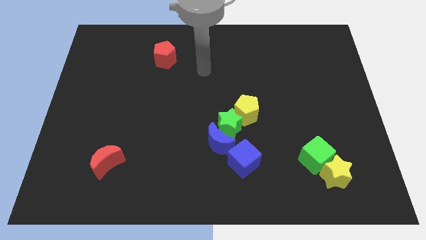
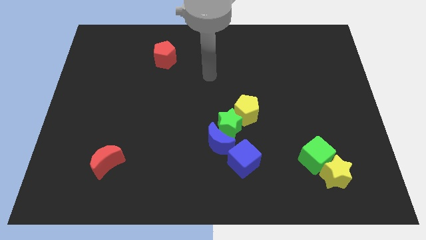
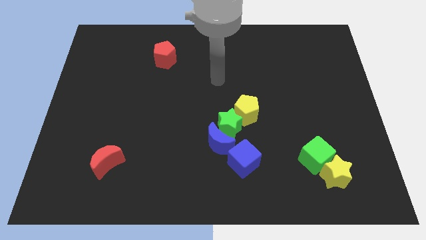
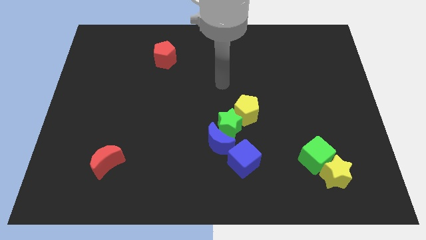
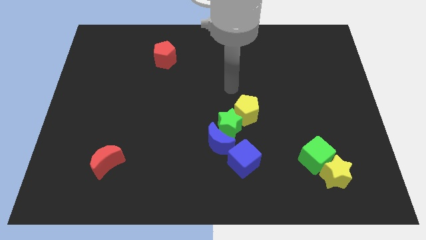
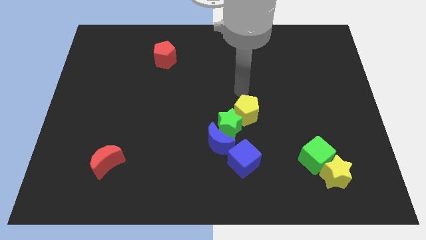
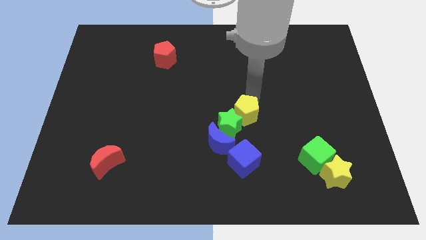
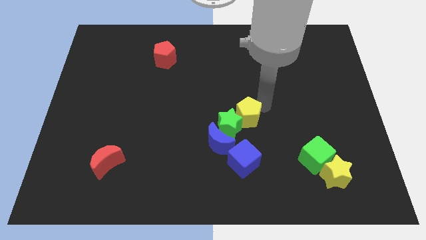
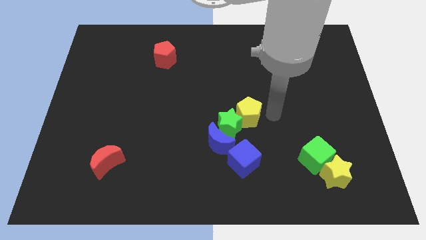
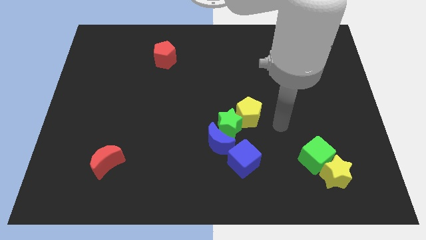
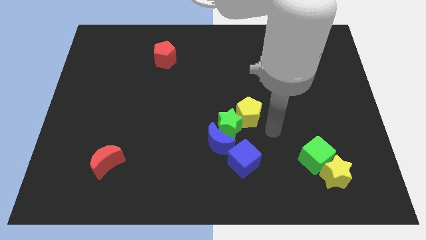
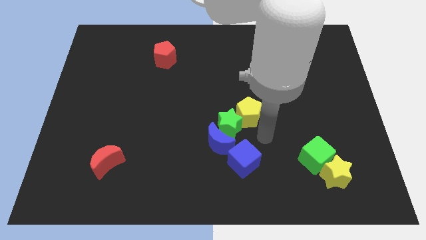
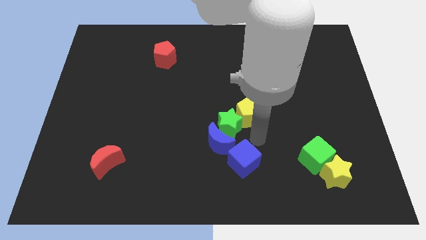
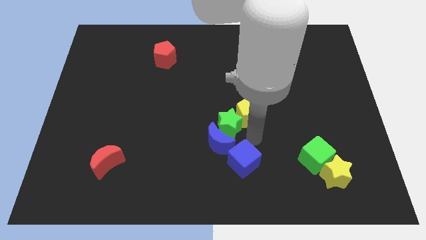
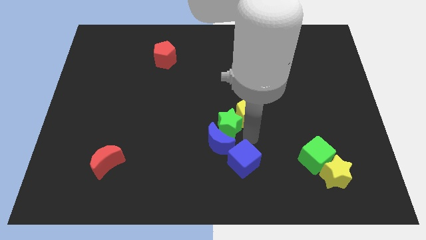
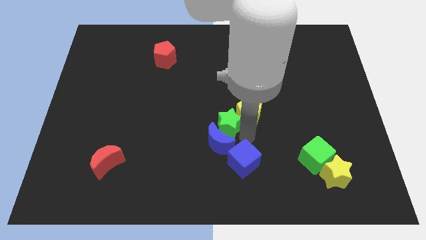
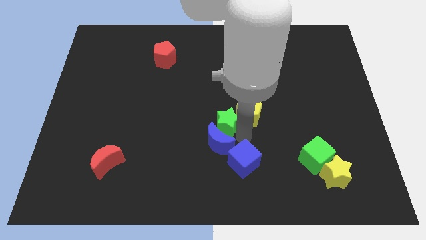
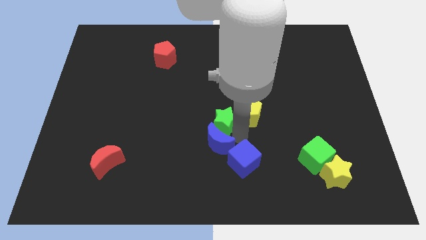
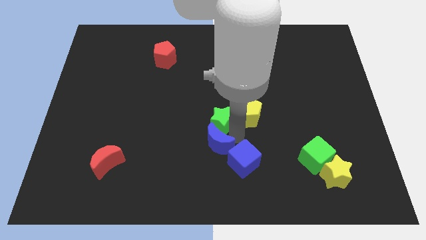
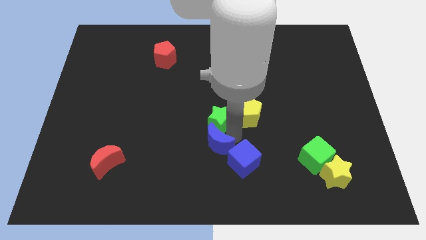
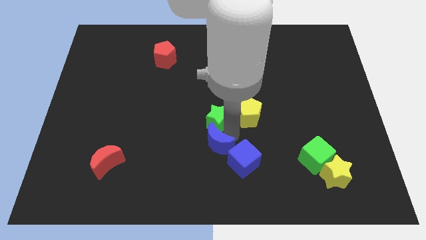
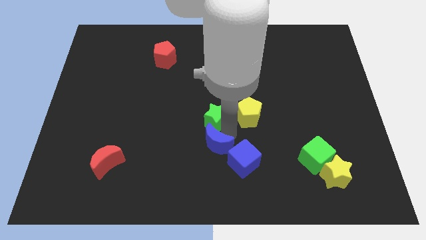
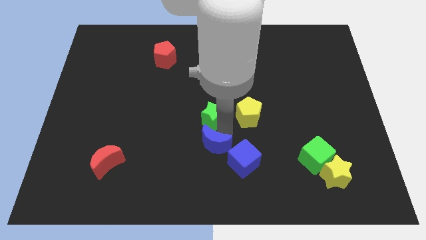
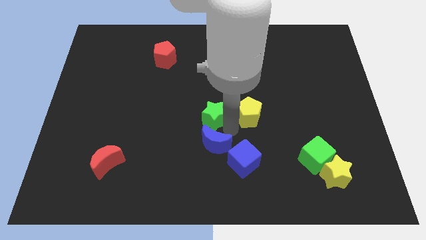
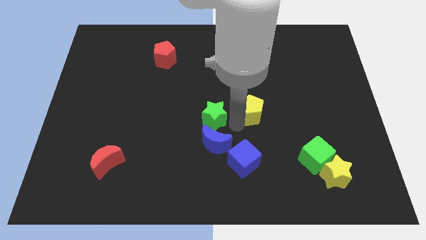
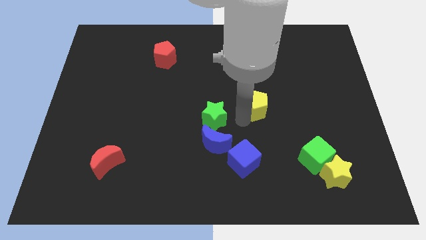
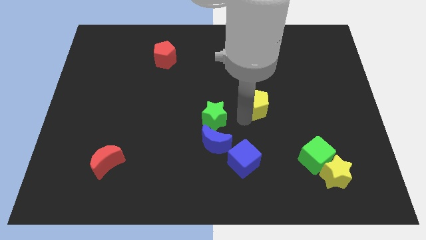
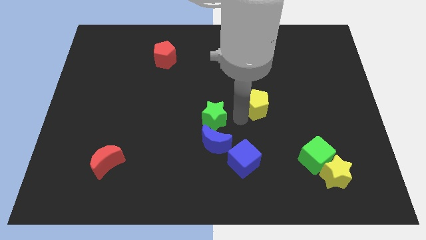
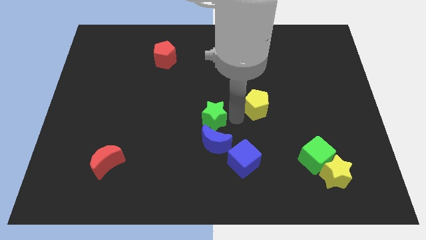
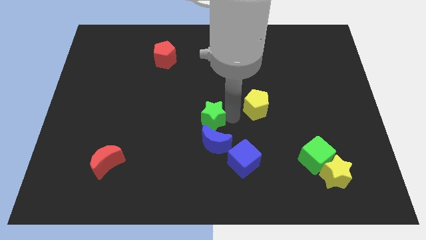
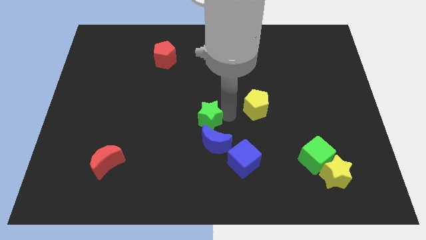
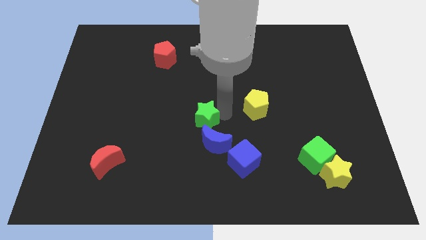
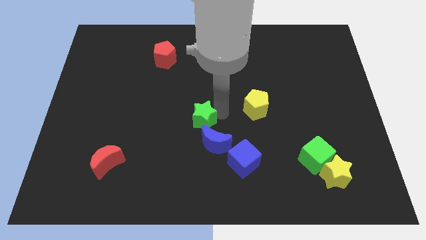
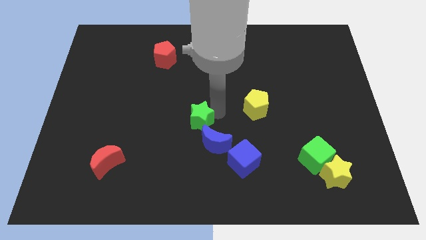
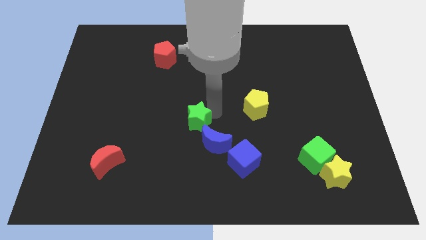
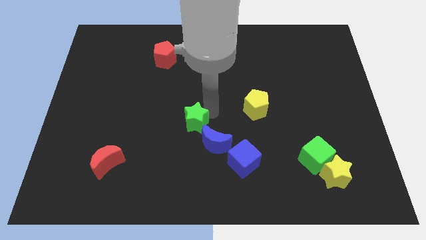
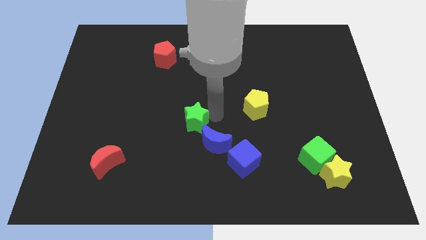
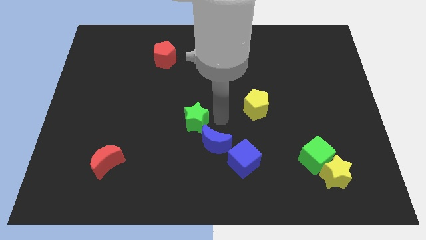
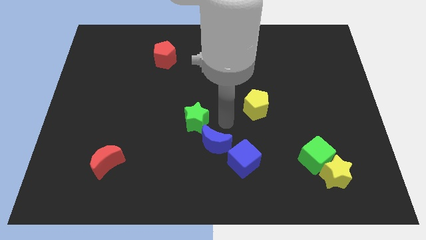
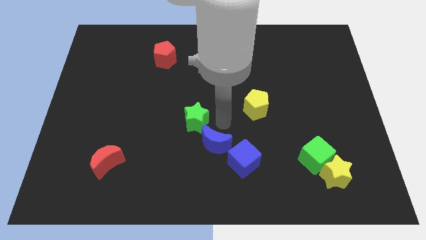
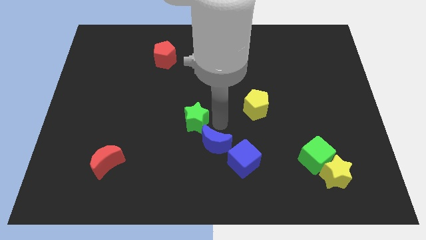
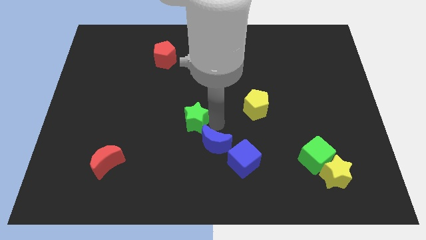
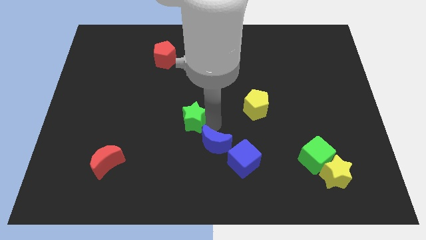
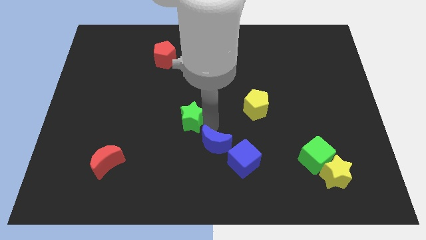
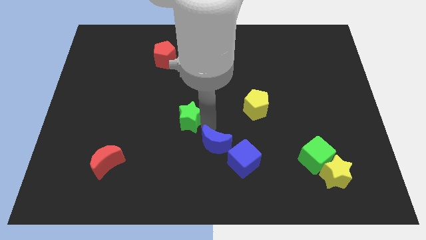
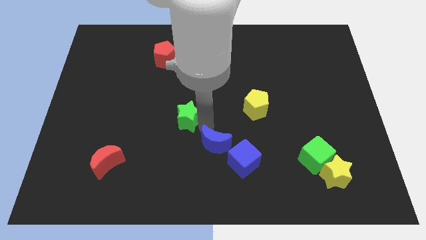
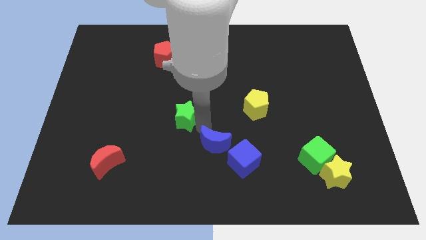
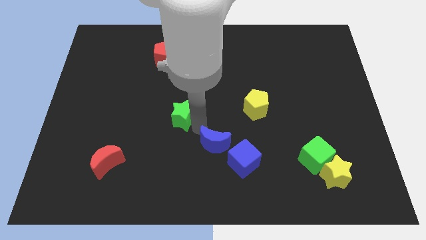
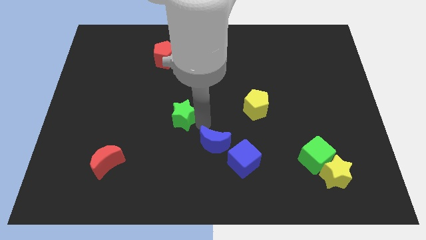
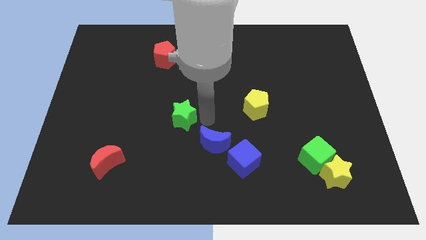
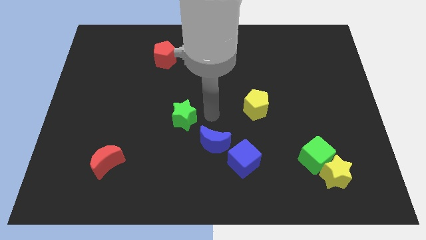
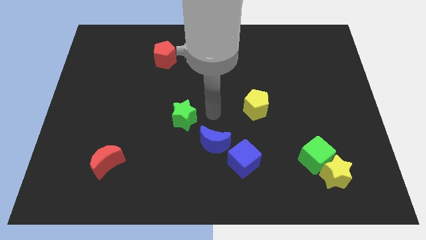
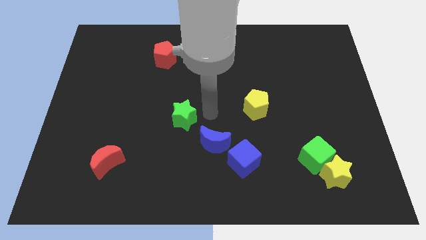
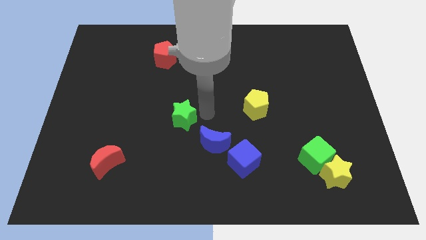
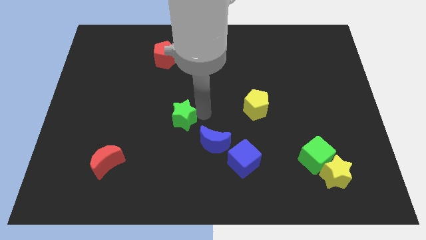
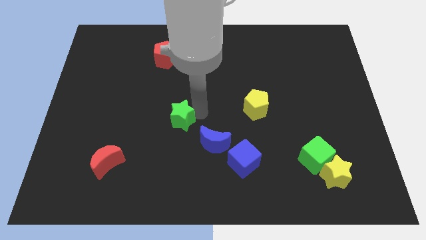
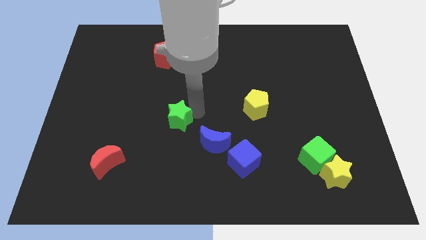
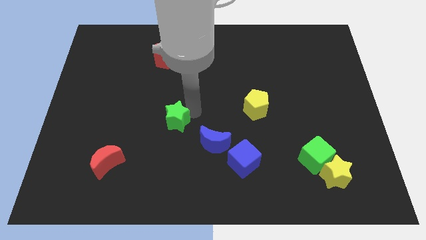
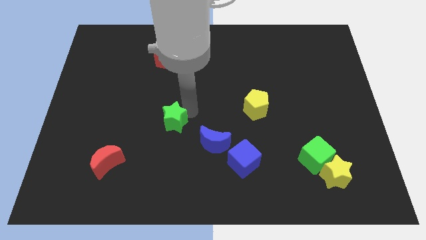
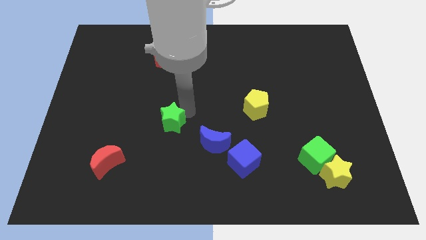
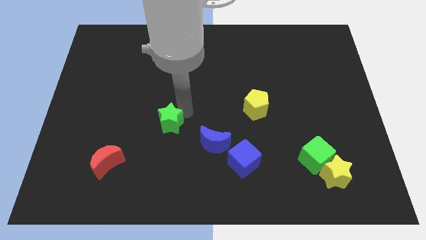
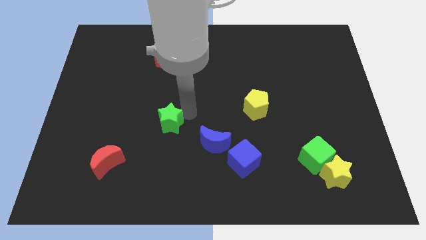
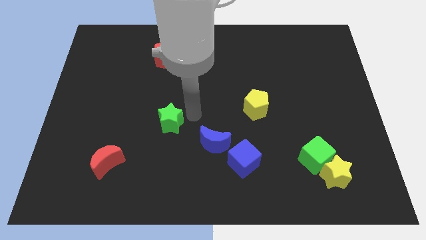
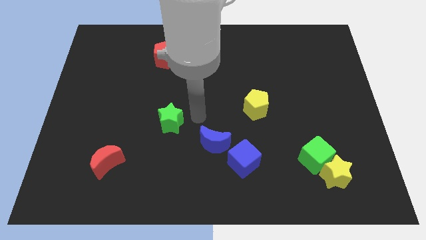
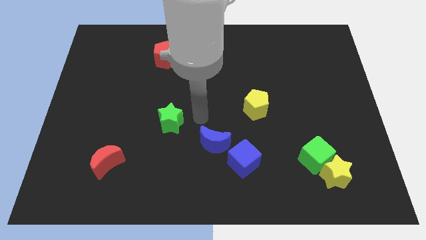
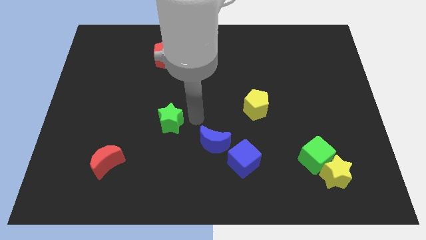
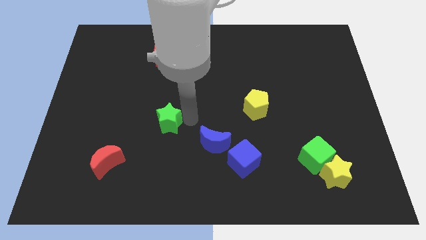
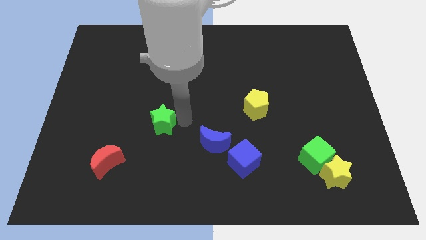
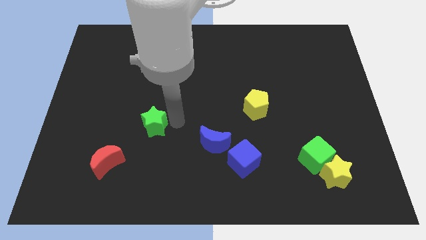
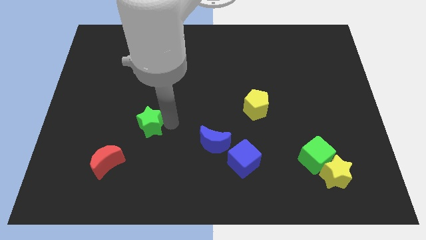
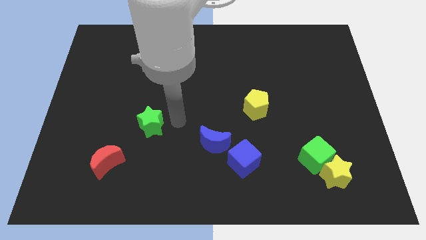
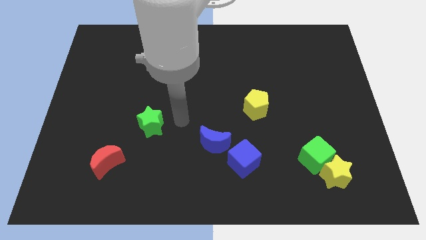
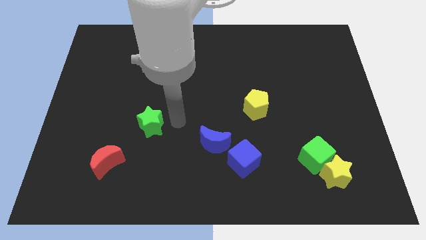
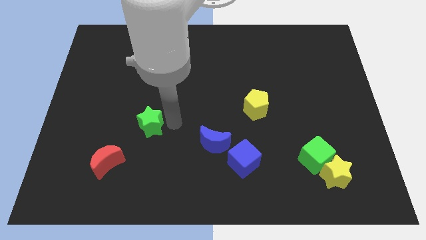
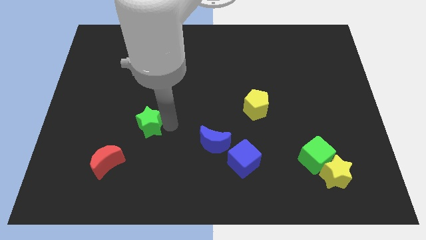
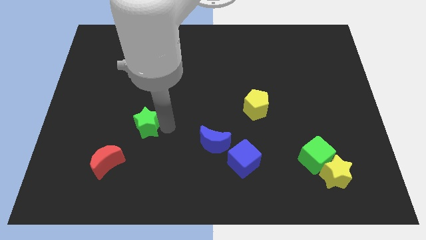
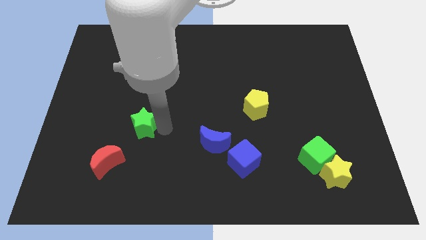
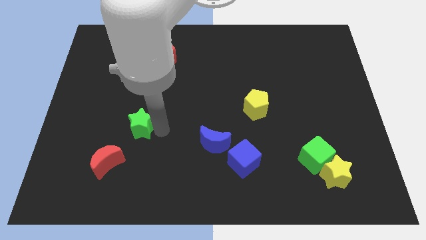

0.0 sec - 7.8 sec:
push the green star left

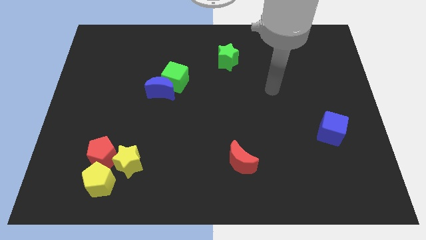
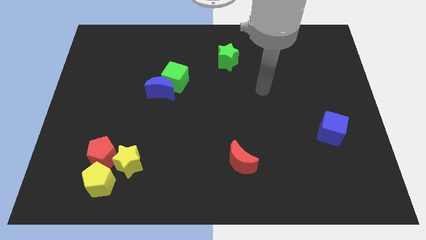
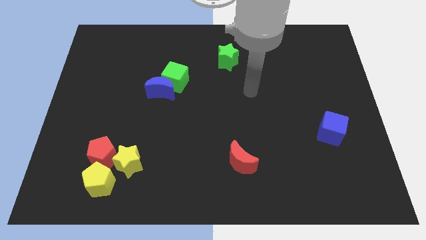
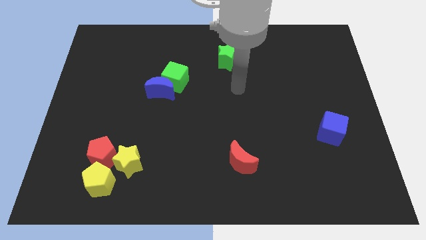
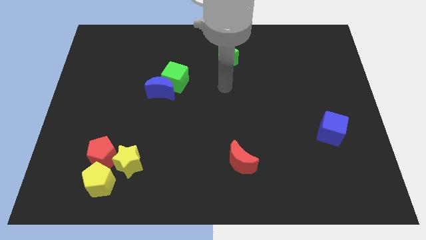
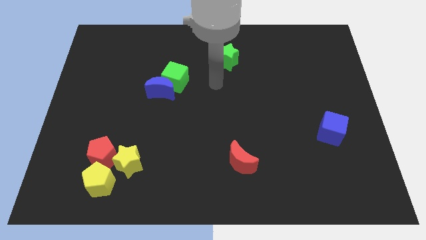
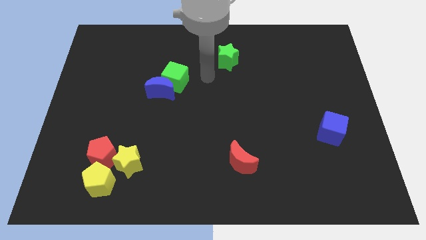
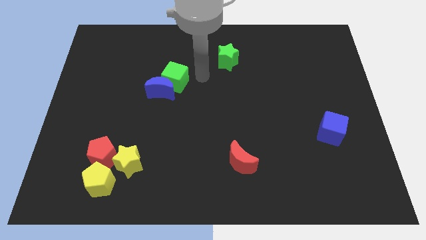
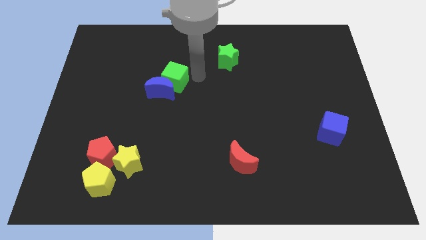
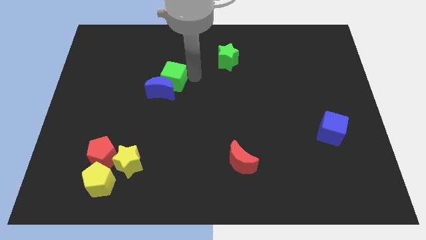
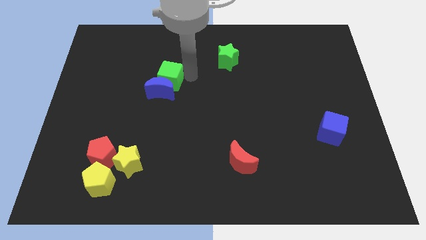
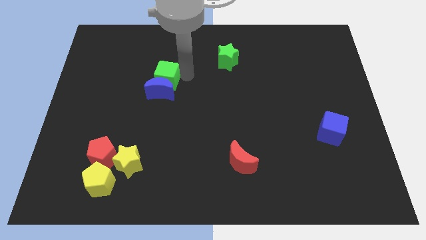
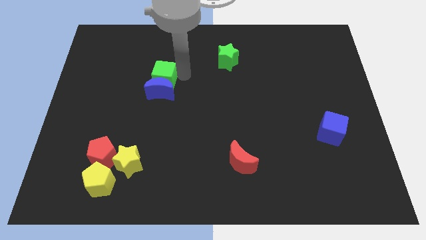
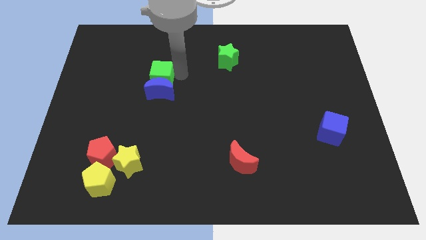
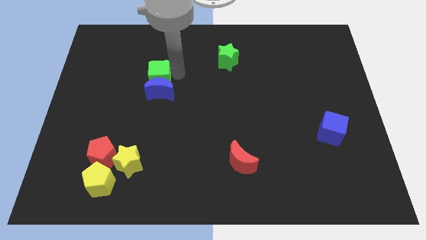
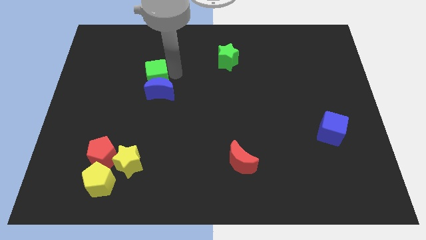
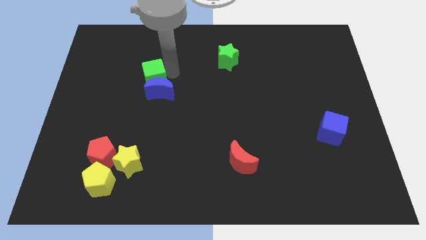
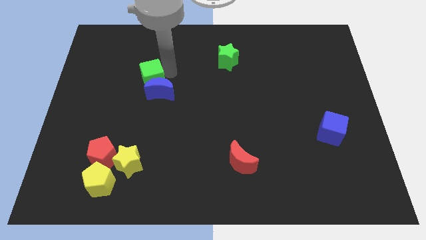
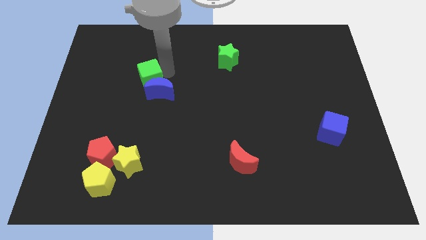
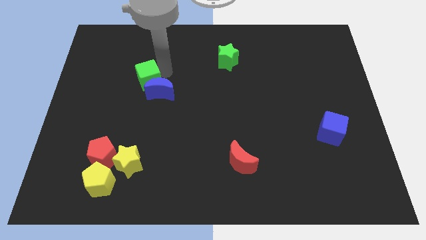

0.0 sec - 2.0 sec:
slide the green cube somewhat left
